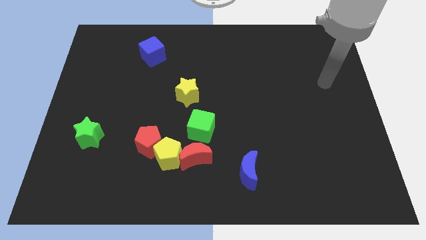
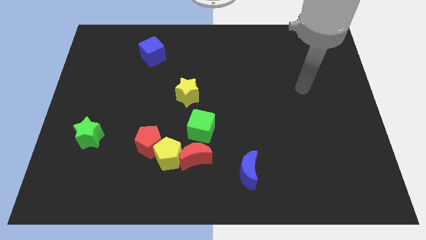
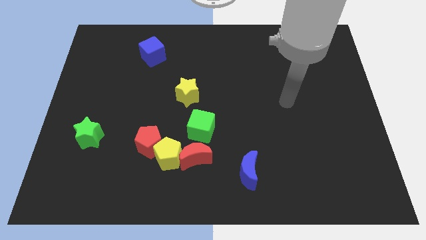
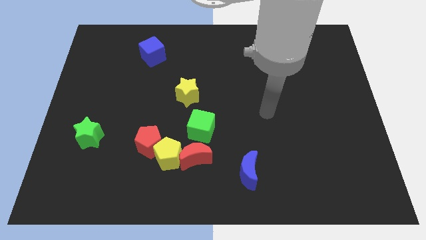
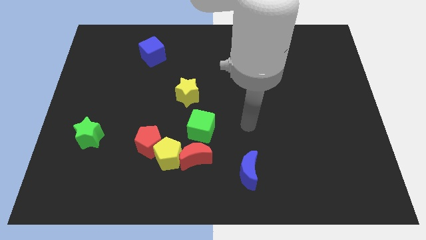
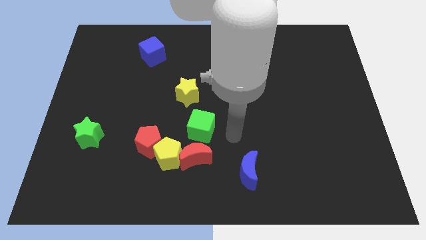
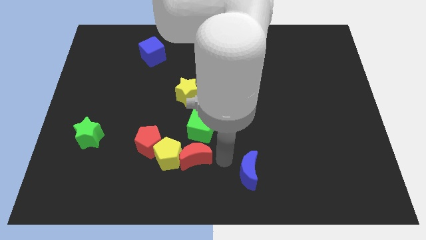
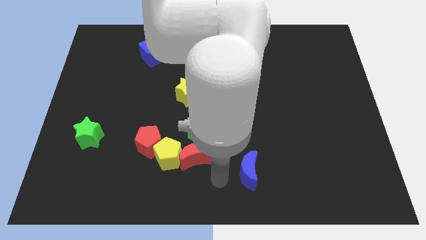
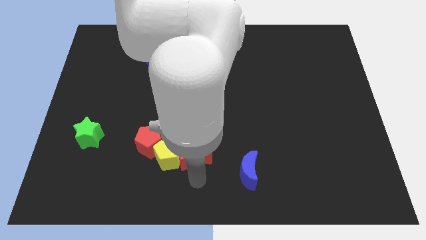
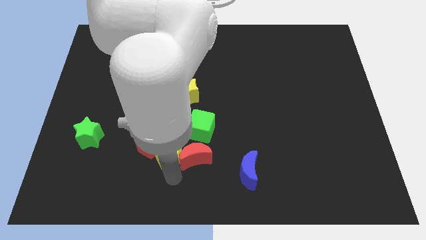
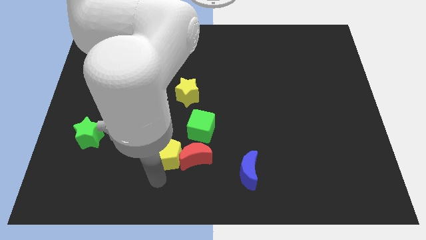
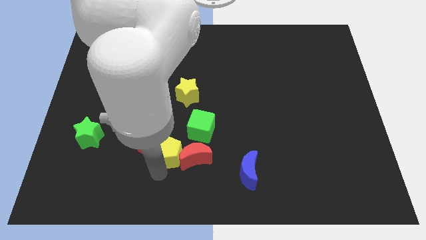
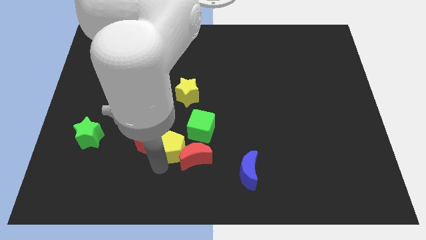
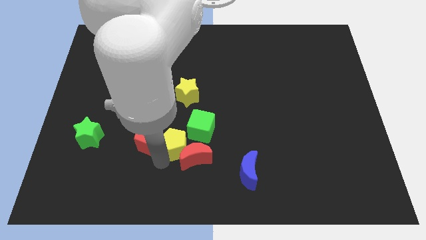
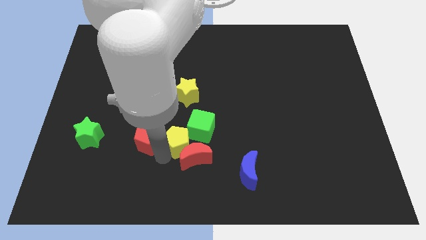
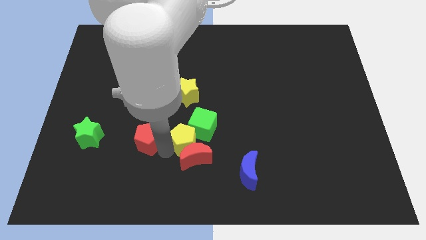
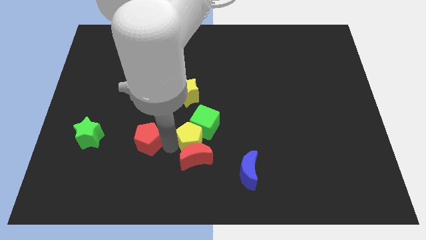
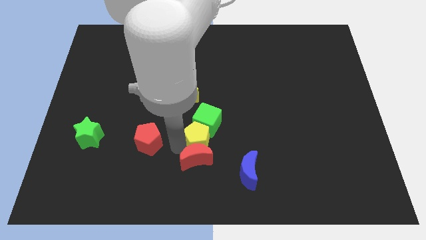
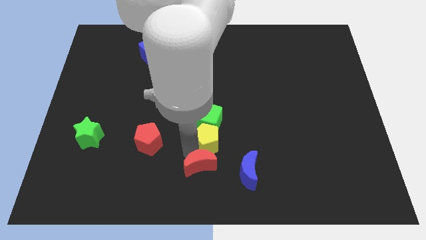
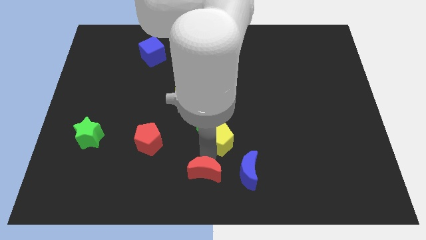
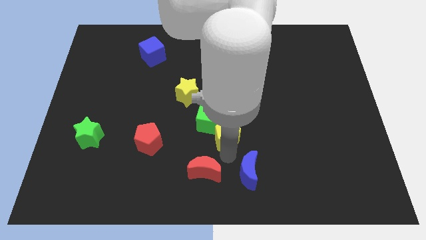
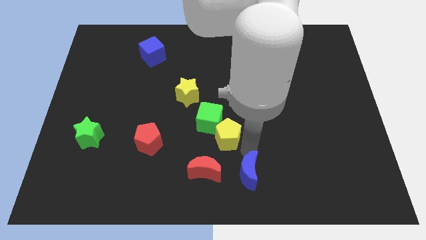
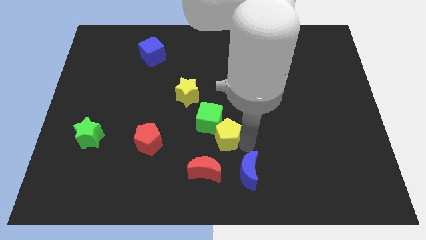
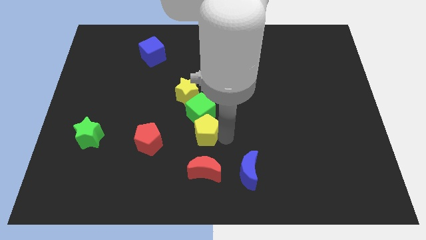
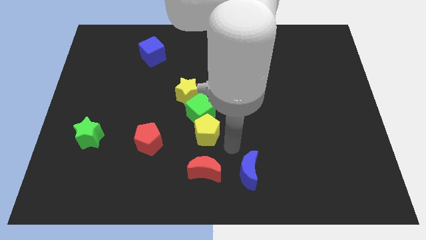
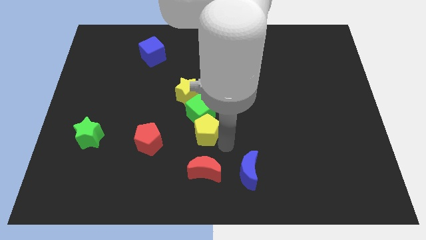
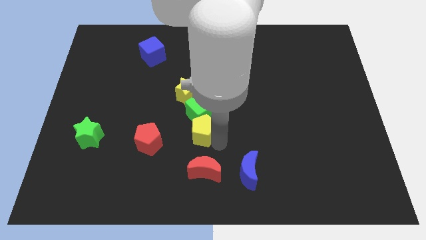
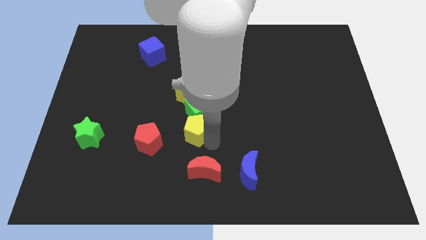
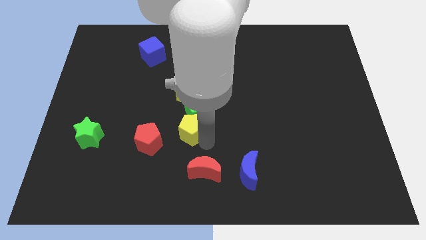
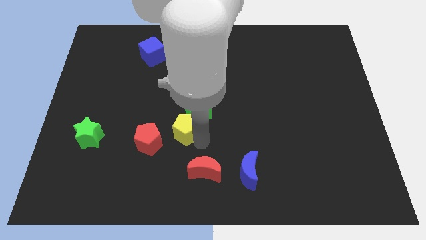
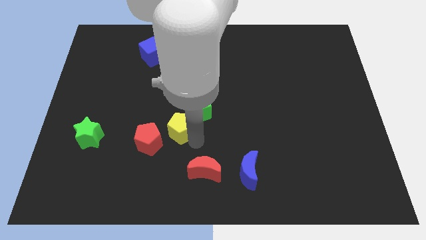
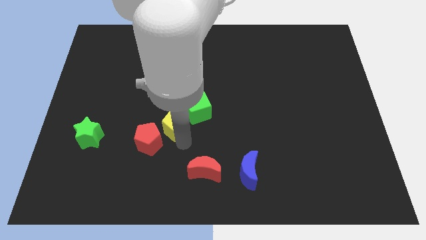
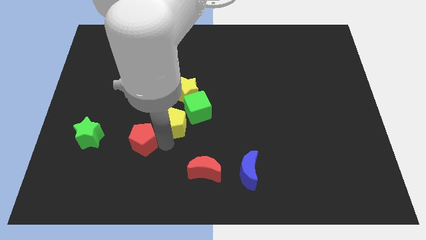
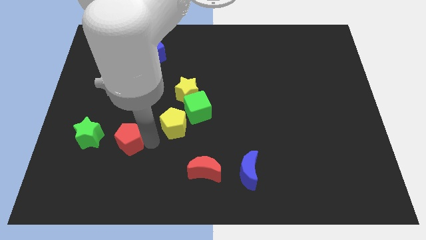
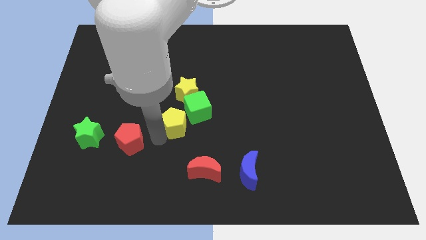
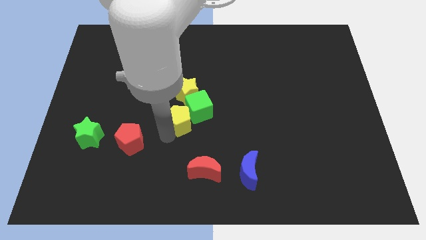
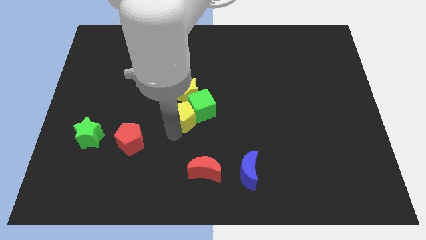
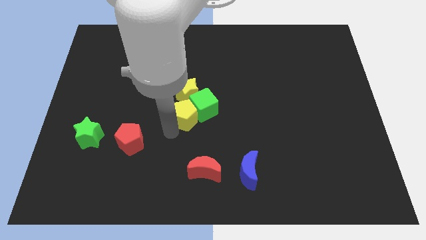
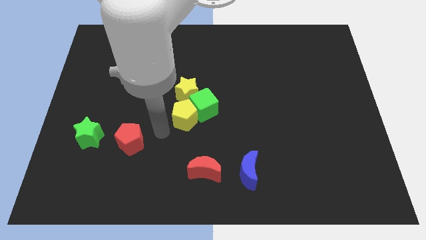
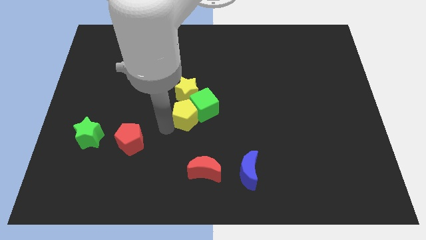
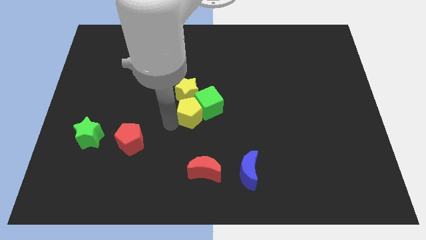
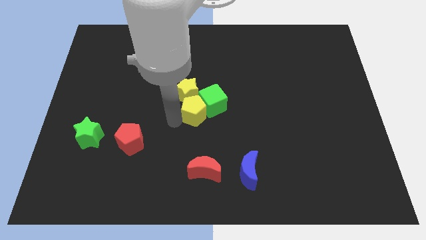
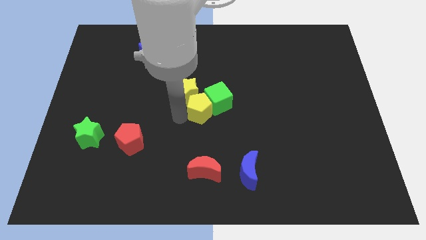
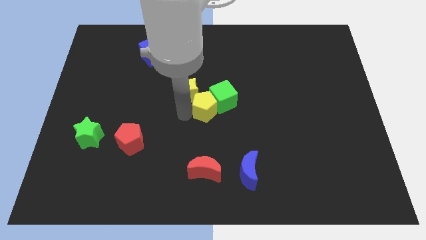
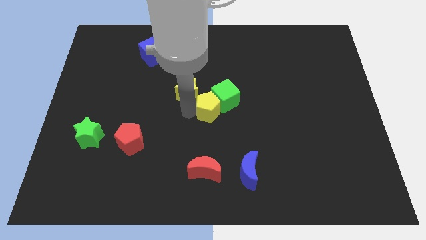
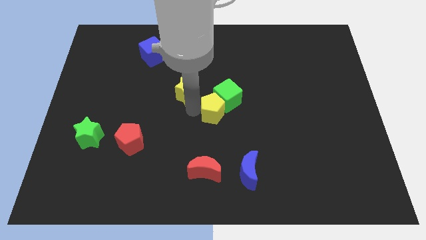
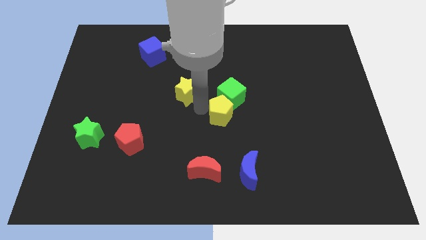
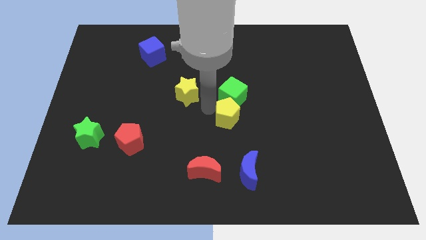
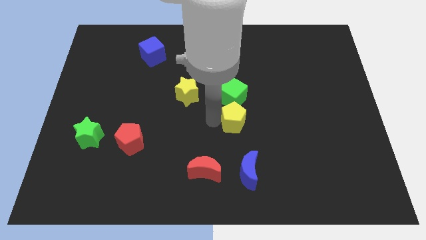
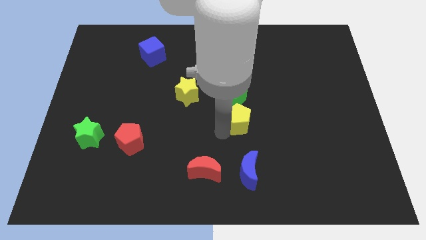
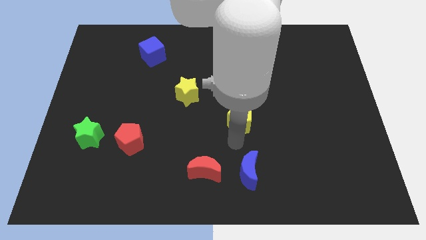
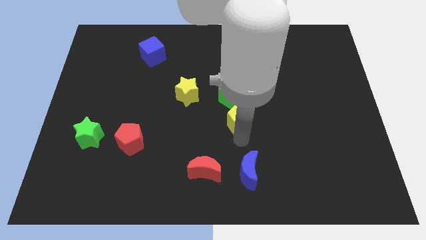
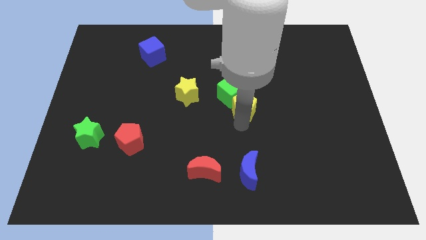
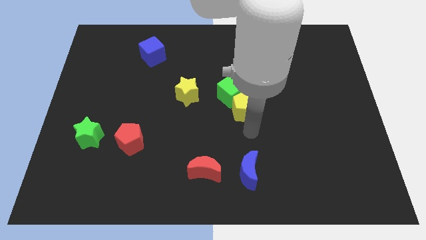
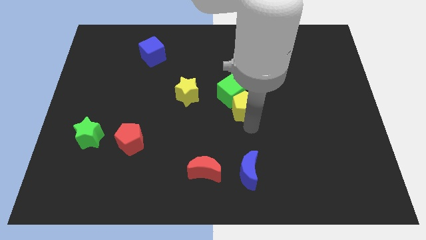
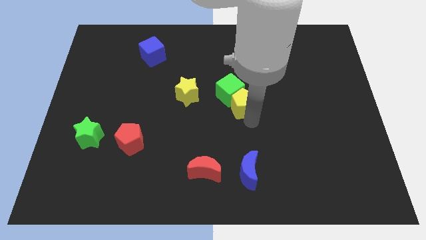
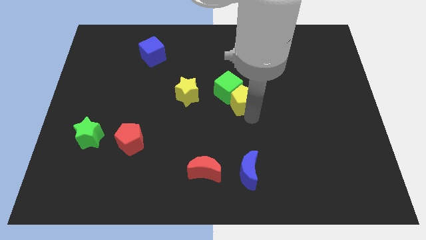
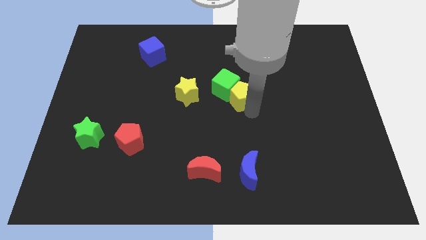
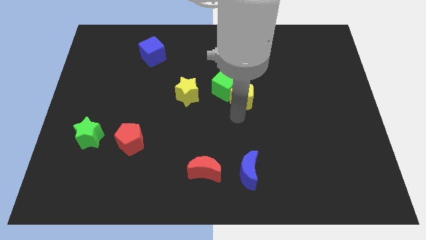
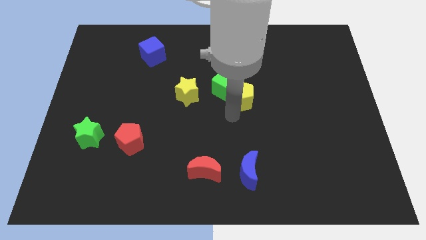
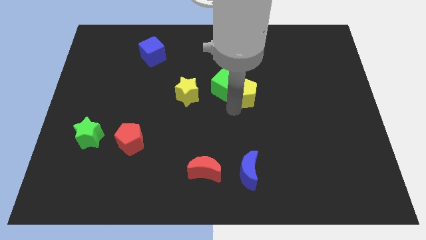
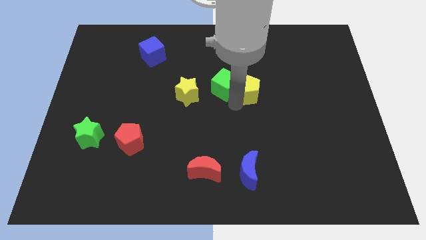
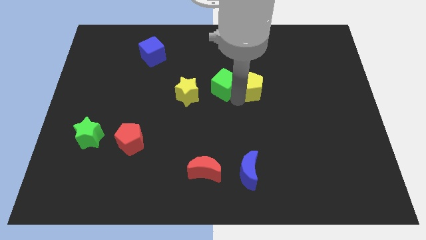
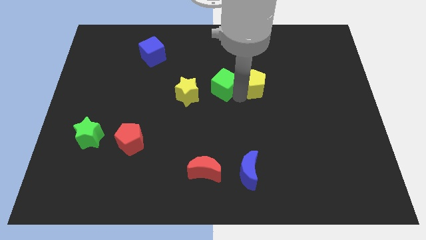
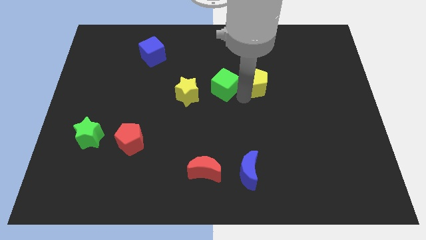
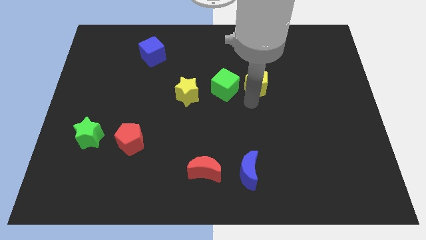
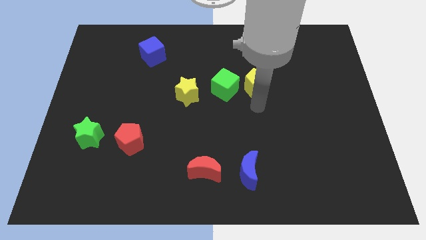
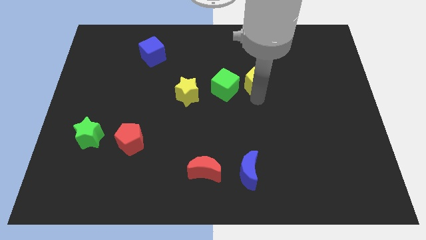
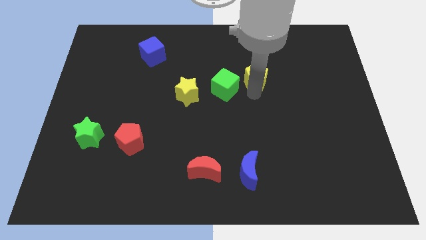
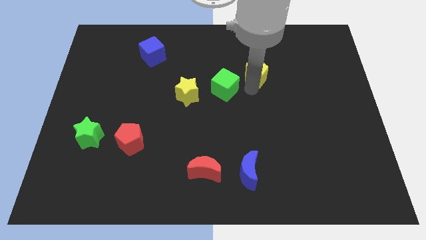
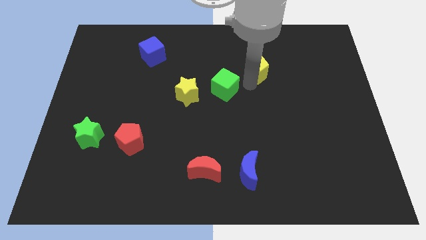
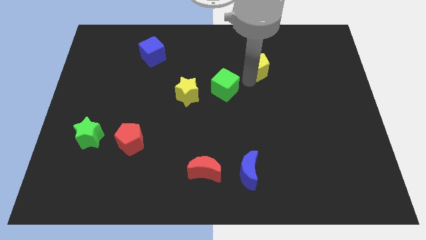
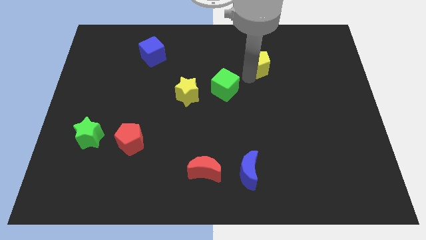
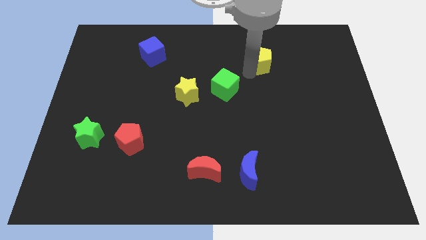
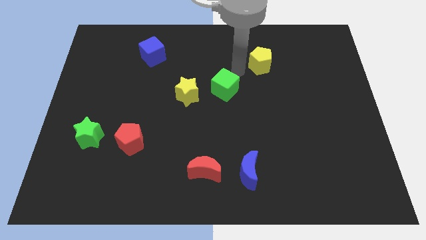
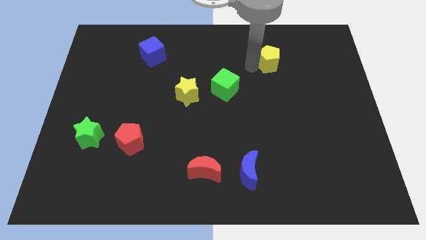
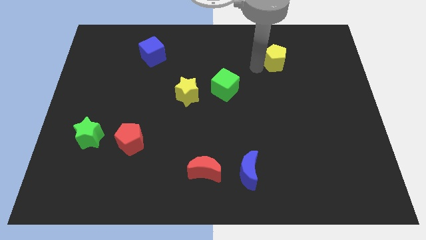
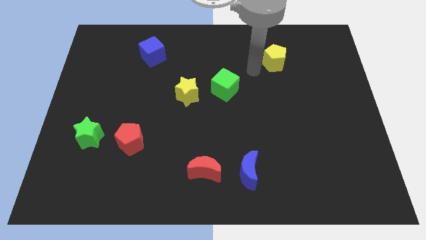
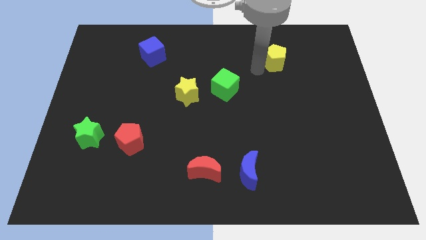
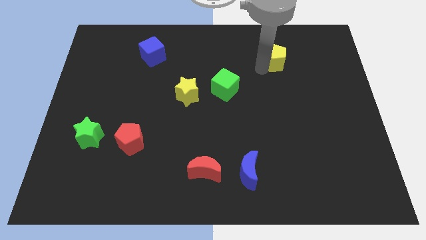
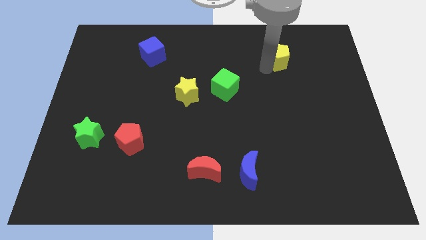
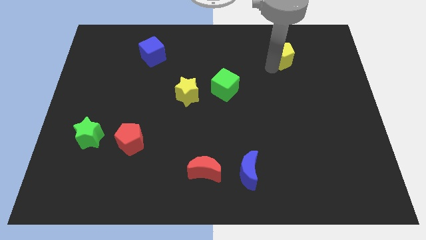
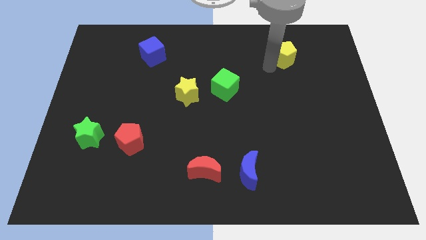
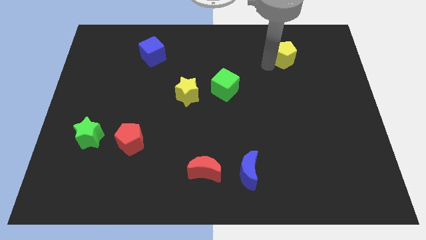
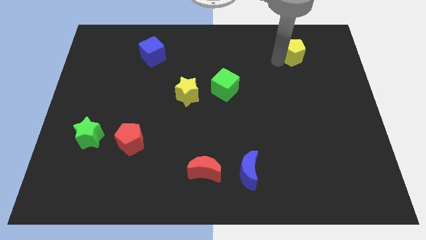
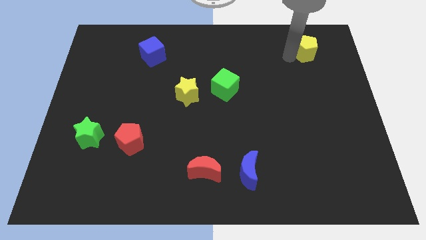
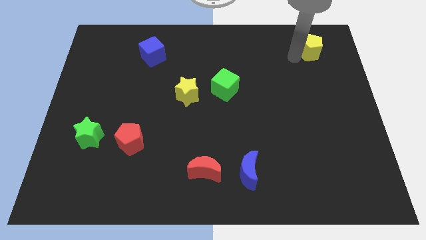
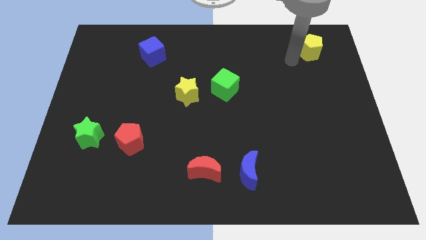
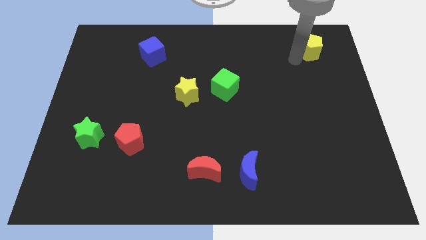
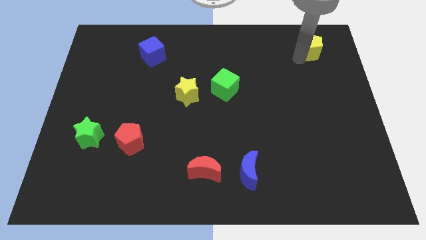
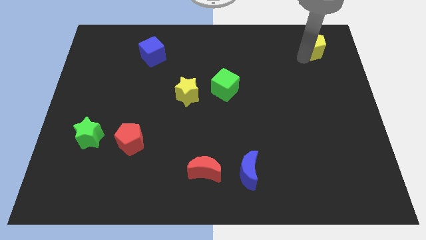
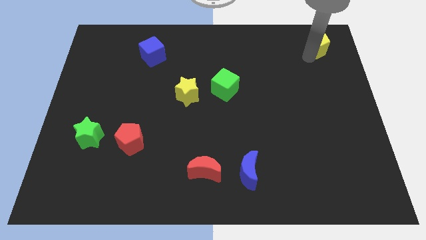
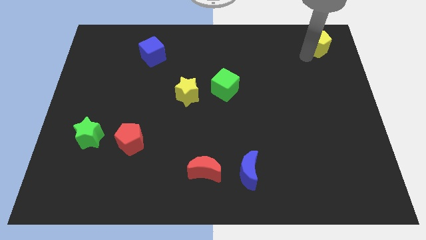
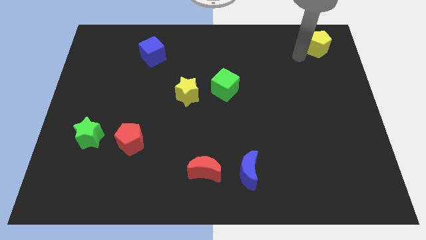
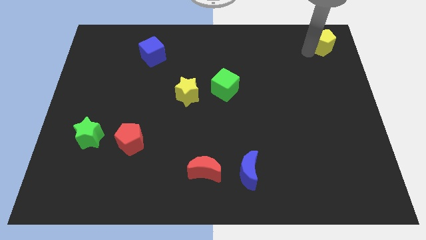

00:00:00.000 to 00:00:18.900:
slide the yellow pentagon to the top right
